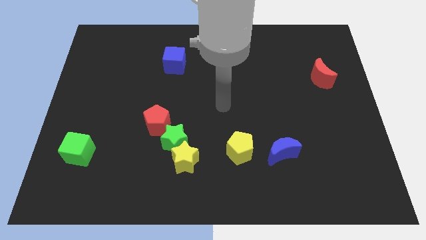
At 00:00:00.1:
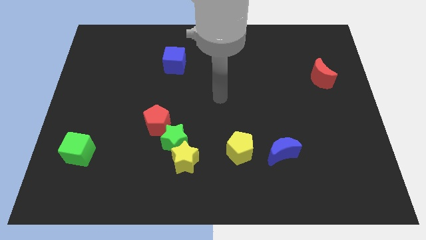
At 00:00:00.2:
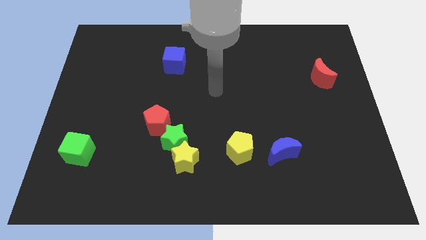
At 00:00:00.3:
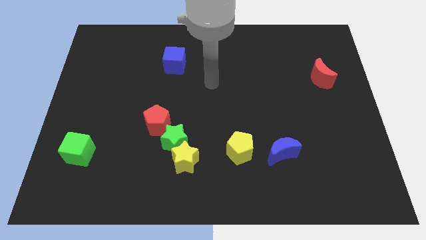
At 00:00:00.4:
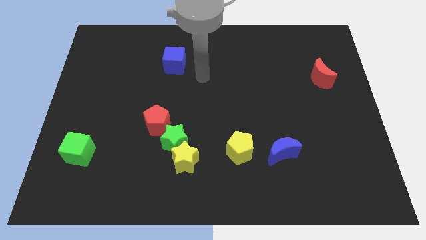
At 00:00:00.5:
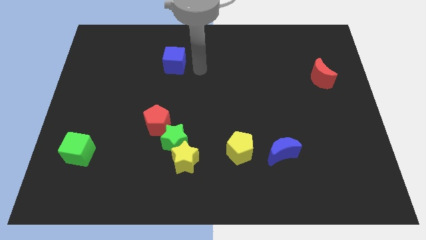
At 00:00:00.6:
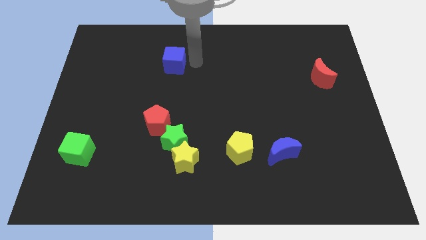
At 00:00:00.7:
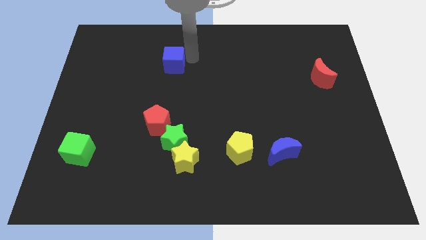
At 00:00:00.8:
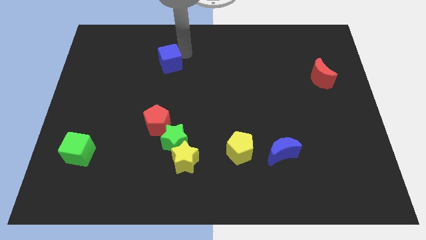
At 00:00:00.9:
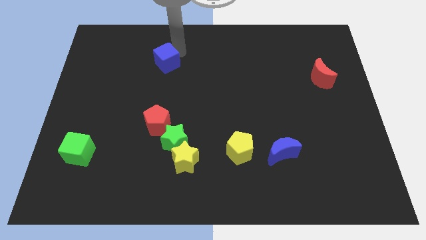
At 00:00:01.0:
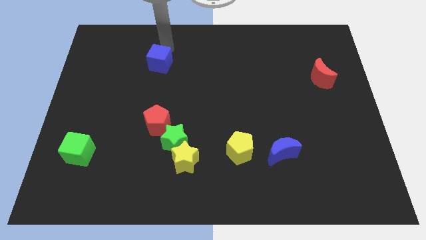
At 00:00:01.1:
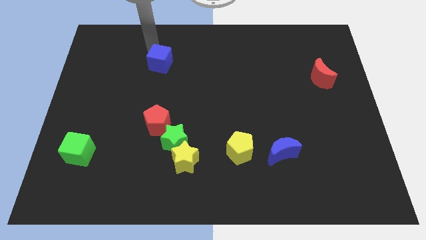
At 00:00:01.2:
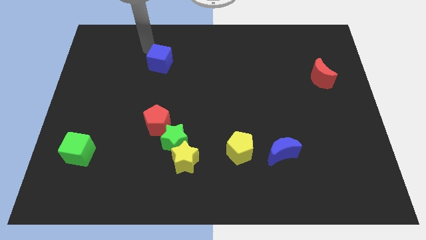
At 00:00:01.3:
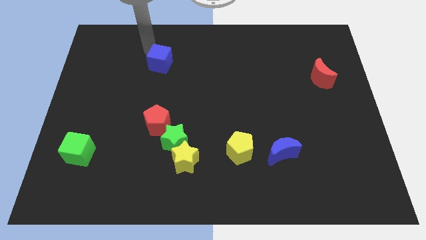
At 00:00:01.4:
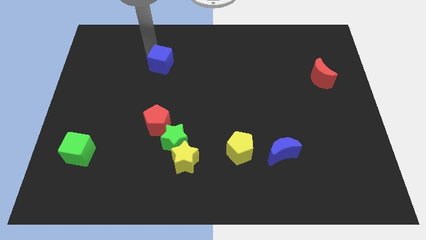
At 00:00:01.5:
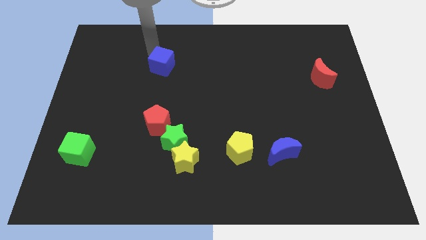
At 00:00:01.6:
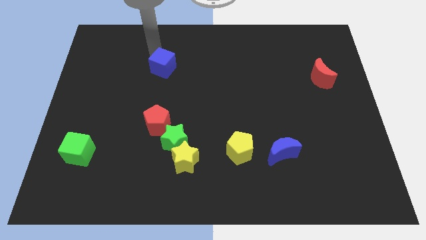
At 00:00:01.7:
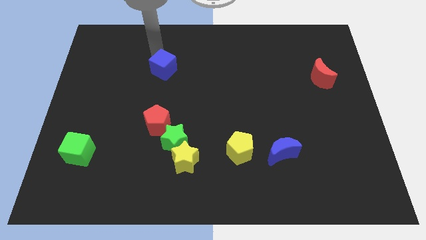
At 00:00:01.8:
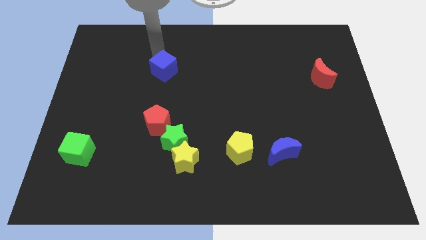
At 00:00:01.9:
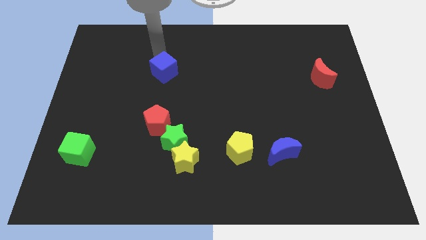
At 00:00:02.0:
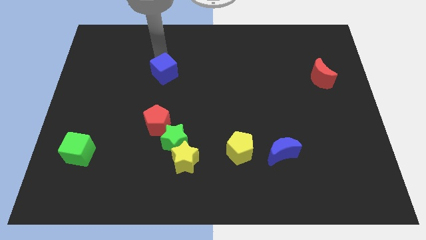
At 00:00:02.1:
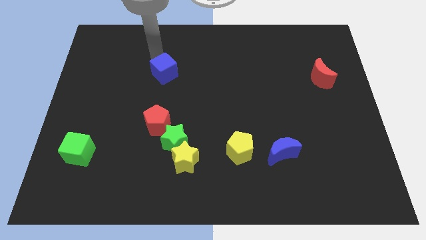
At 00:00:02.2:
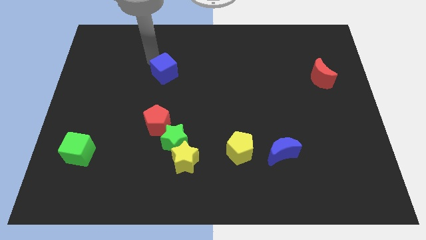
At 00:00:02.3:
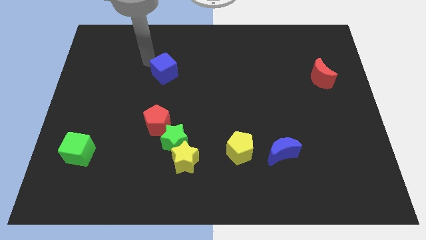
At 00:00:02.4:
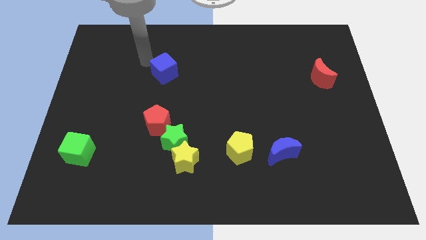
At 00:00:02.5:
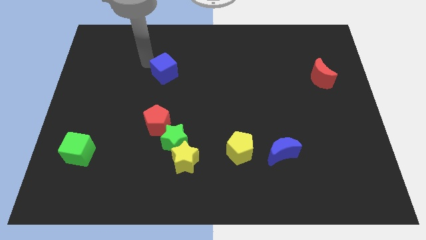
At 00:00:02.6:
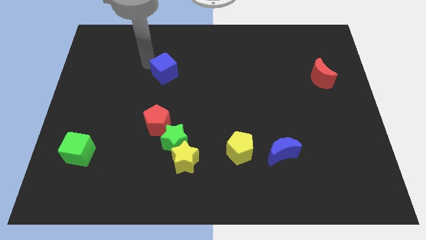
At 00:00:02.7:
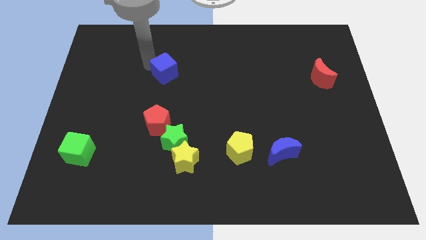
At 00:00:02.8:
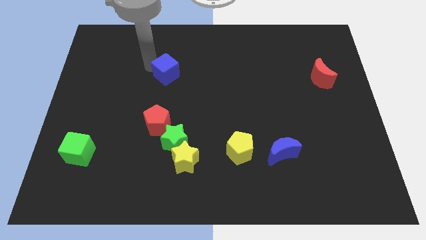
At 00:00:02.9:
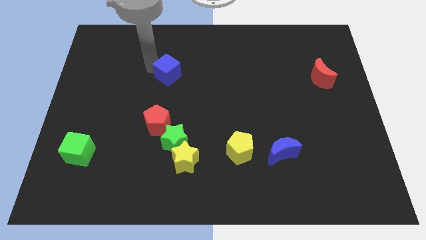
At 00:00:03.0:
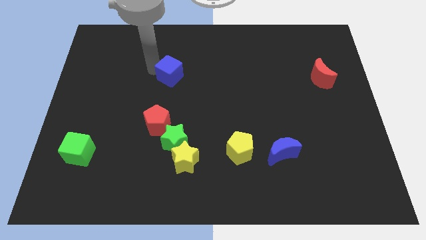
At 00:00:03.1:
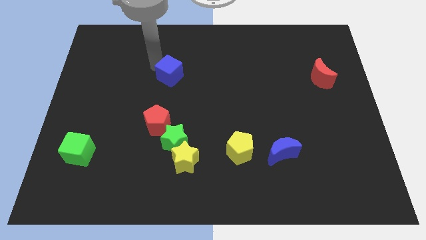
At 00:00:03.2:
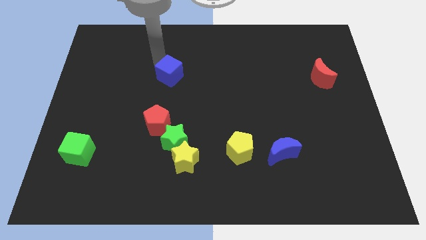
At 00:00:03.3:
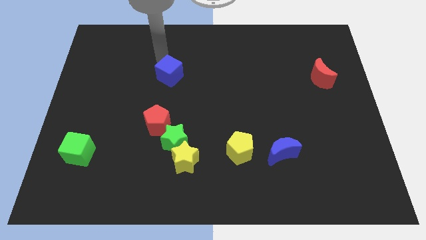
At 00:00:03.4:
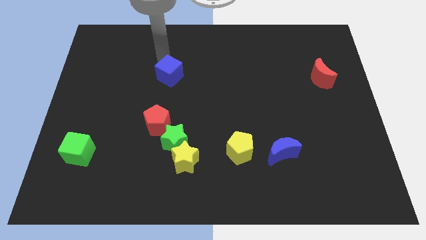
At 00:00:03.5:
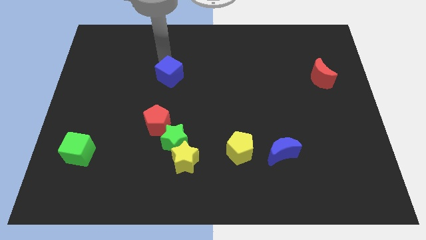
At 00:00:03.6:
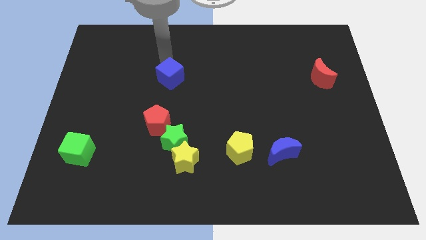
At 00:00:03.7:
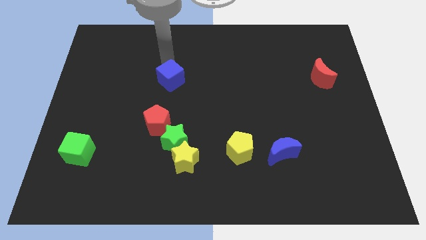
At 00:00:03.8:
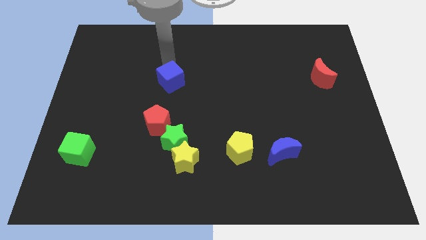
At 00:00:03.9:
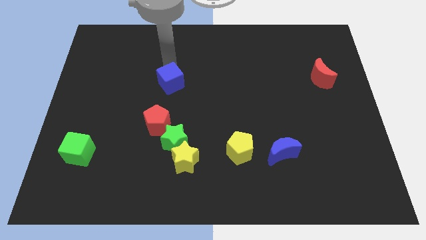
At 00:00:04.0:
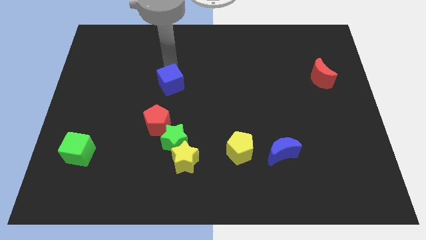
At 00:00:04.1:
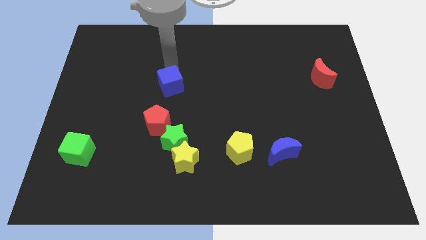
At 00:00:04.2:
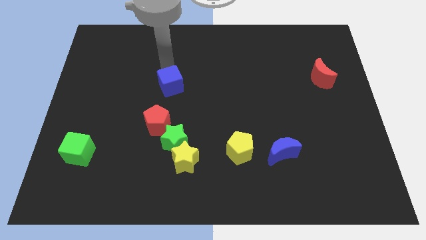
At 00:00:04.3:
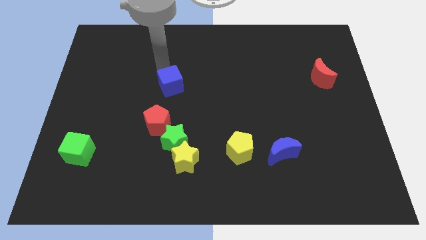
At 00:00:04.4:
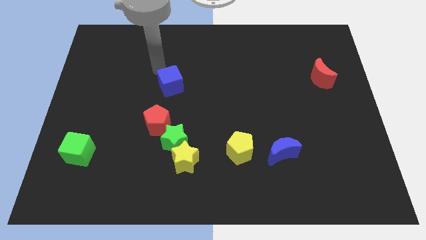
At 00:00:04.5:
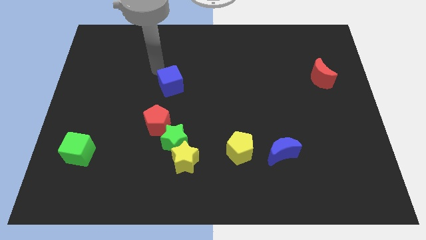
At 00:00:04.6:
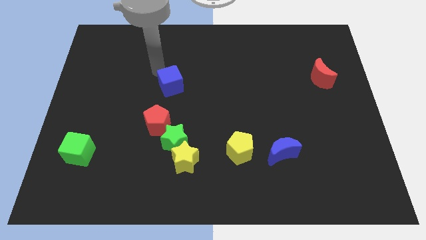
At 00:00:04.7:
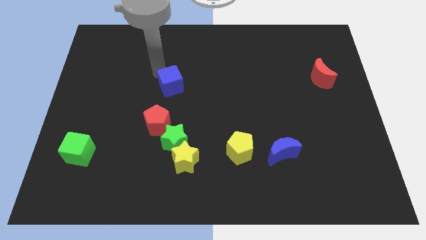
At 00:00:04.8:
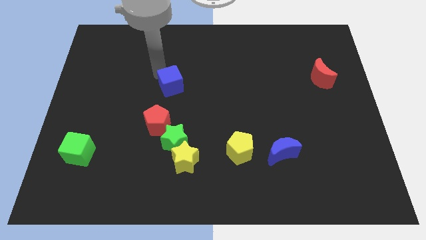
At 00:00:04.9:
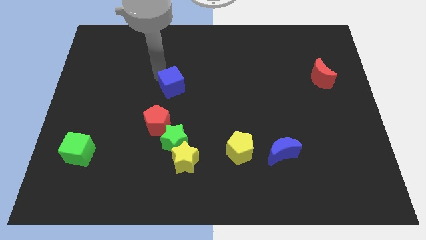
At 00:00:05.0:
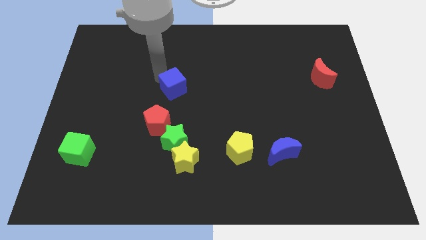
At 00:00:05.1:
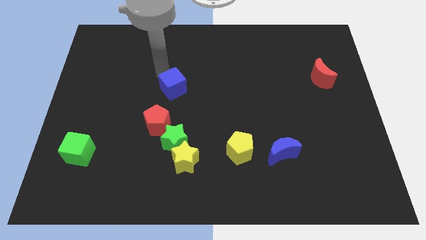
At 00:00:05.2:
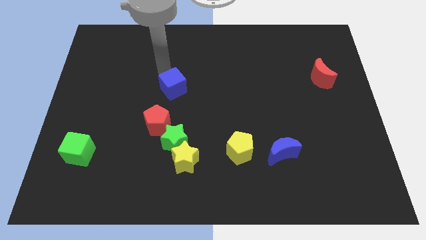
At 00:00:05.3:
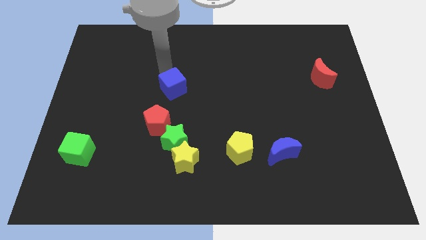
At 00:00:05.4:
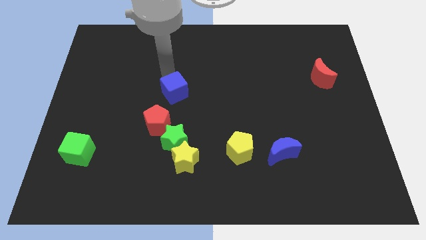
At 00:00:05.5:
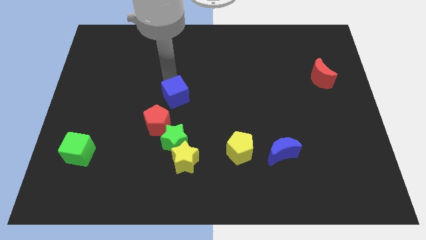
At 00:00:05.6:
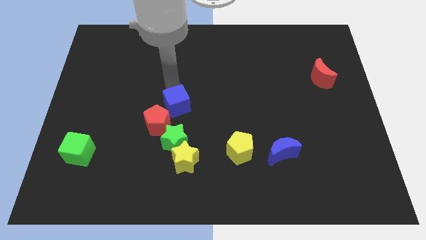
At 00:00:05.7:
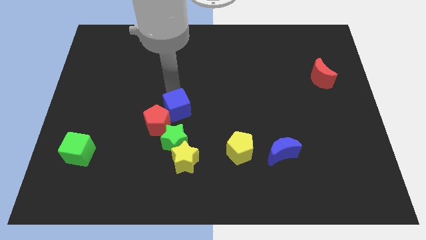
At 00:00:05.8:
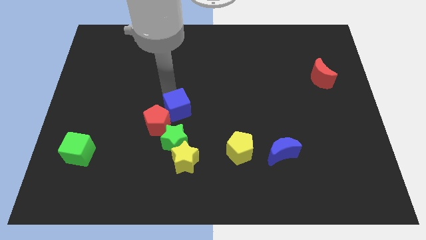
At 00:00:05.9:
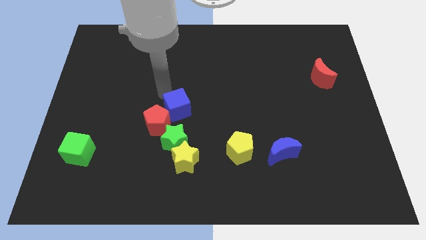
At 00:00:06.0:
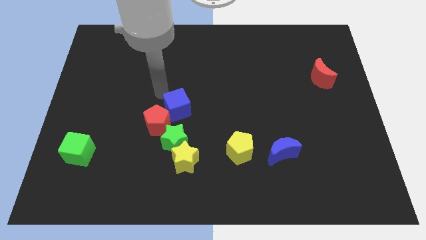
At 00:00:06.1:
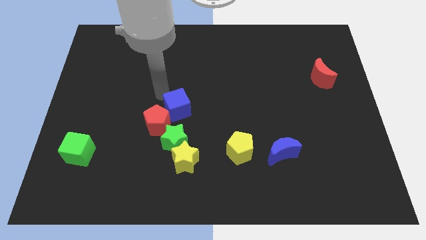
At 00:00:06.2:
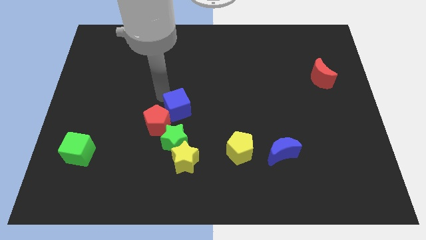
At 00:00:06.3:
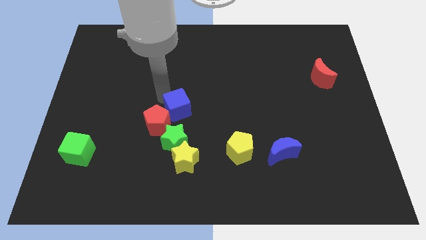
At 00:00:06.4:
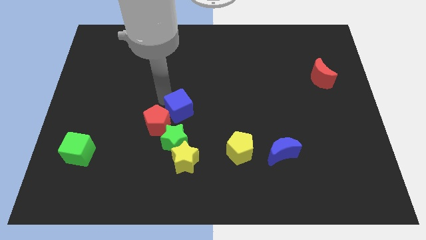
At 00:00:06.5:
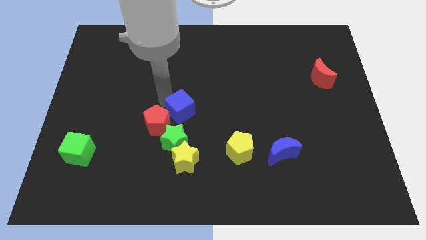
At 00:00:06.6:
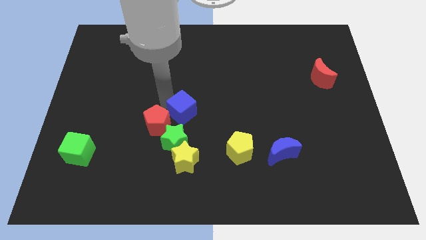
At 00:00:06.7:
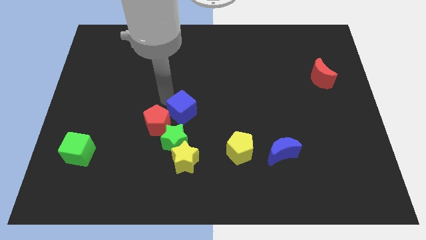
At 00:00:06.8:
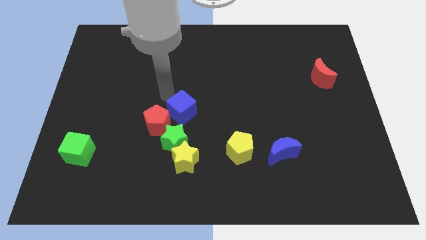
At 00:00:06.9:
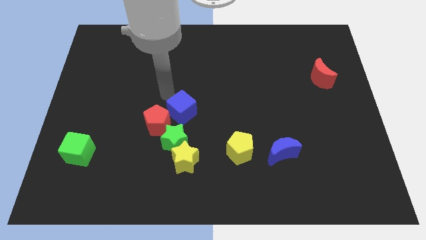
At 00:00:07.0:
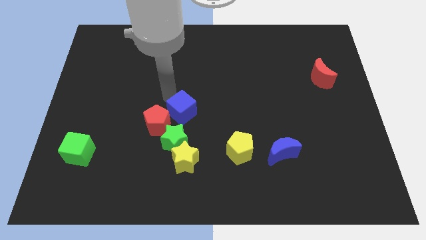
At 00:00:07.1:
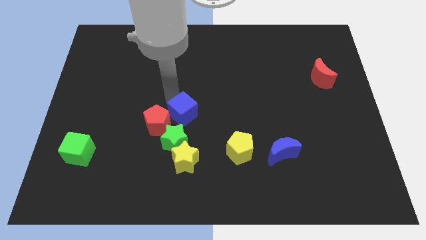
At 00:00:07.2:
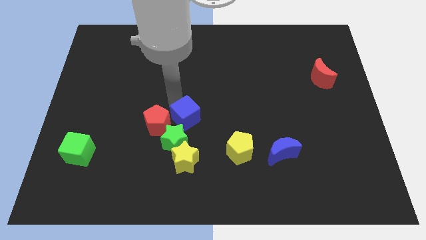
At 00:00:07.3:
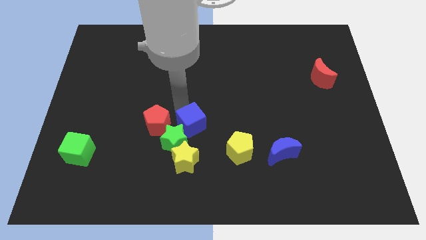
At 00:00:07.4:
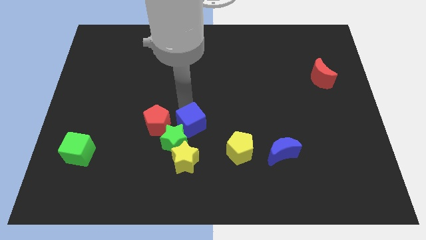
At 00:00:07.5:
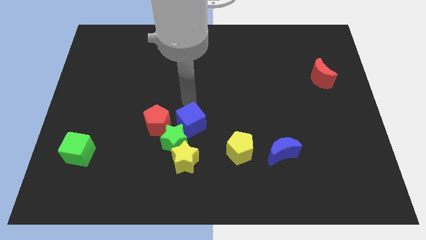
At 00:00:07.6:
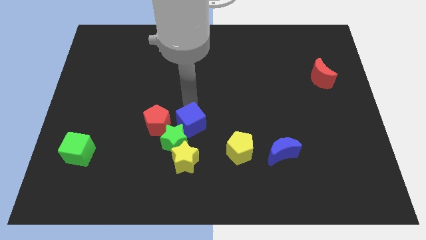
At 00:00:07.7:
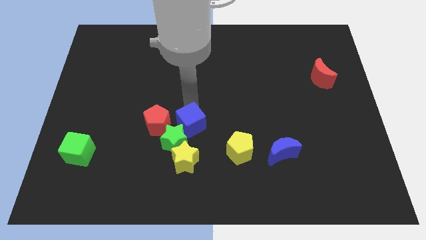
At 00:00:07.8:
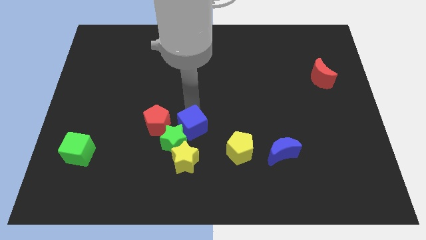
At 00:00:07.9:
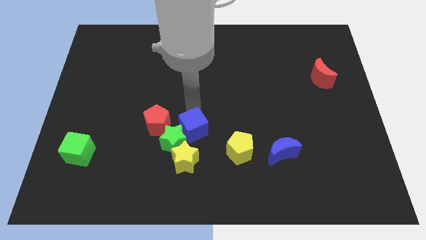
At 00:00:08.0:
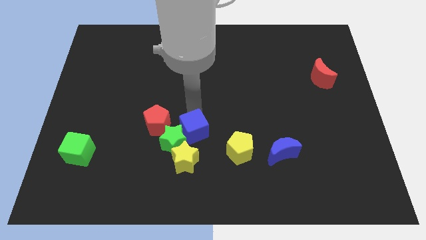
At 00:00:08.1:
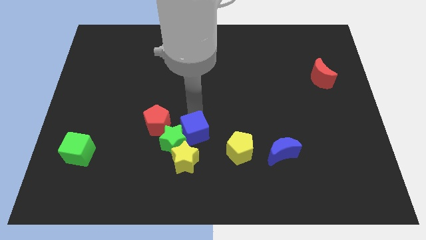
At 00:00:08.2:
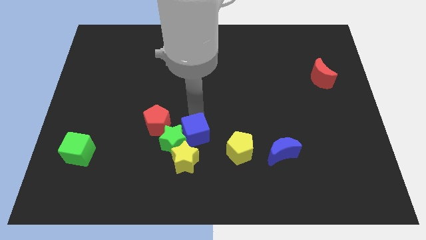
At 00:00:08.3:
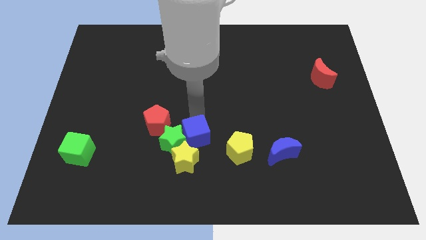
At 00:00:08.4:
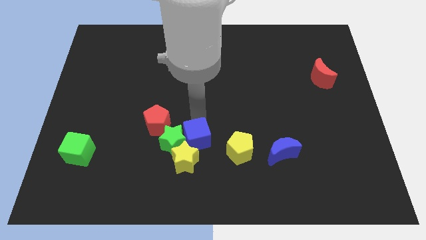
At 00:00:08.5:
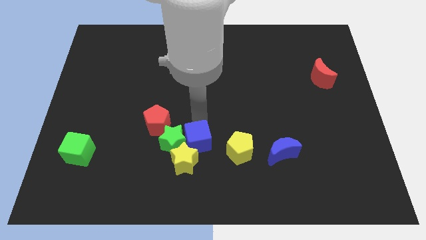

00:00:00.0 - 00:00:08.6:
slide the blue cube close to the yellow star
